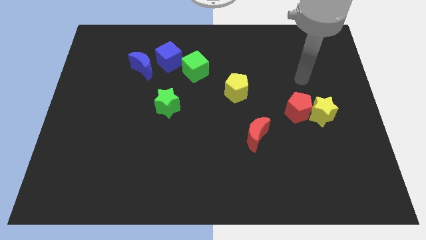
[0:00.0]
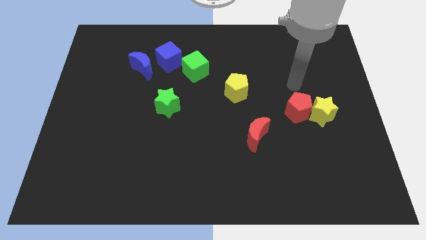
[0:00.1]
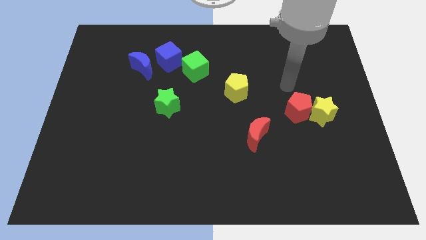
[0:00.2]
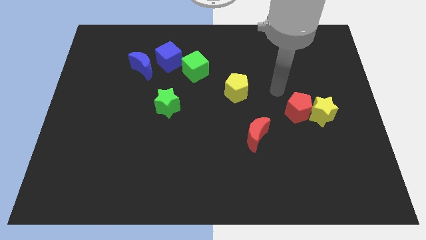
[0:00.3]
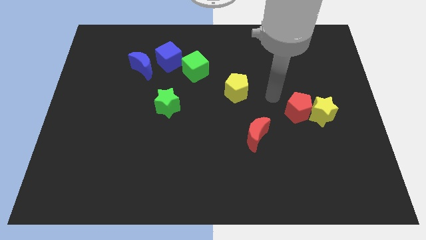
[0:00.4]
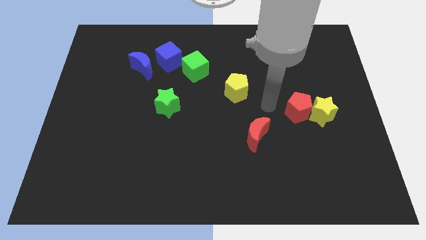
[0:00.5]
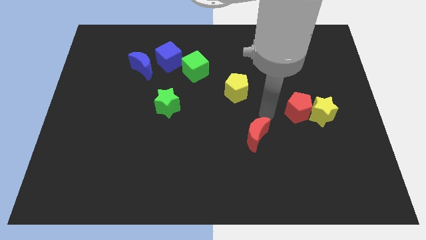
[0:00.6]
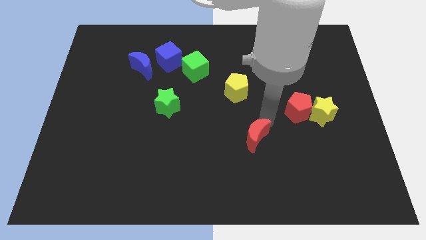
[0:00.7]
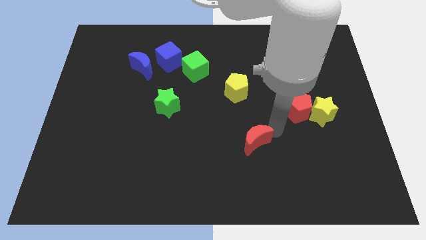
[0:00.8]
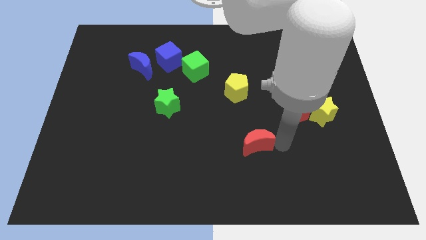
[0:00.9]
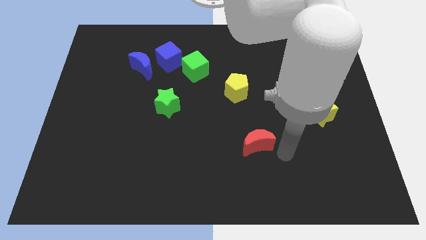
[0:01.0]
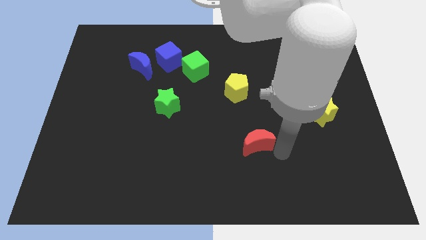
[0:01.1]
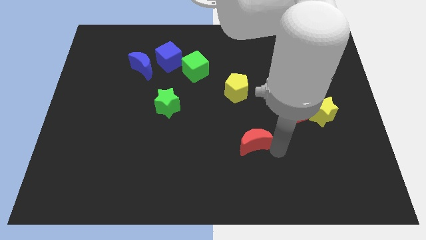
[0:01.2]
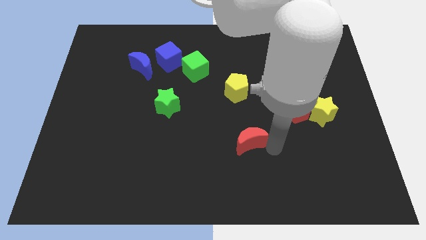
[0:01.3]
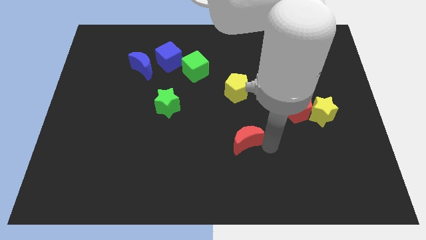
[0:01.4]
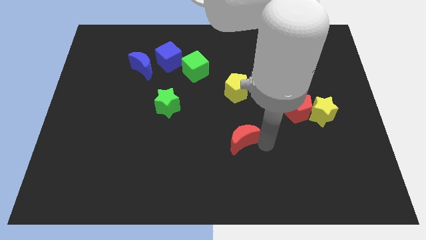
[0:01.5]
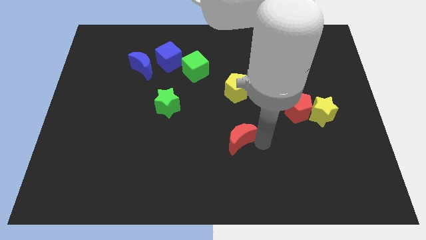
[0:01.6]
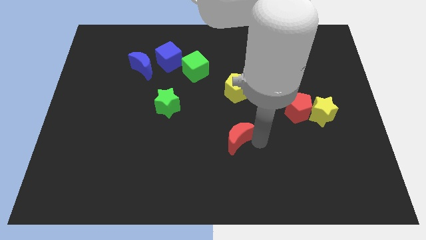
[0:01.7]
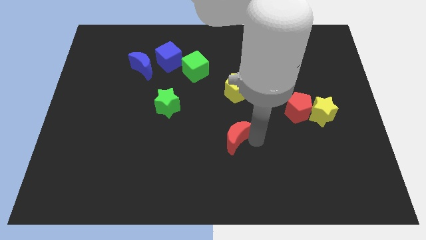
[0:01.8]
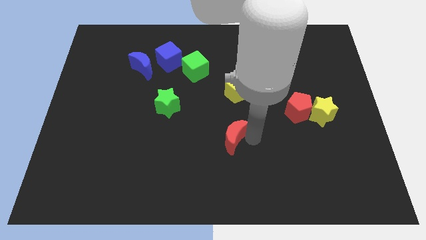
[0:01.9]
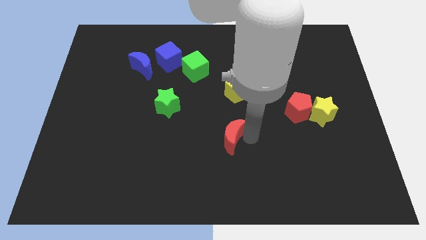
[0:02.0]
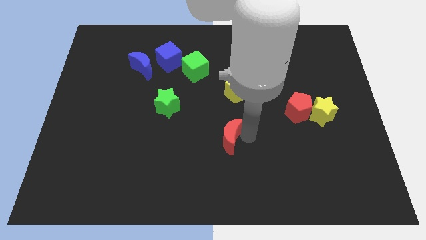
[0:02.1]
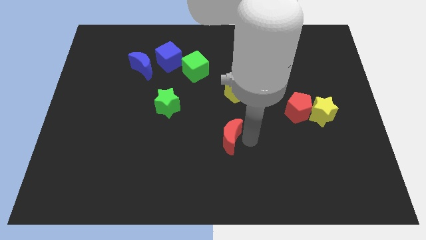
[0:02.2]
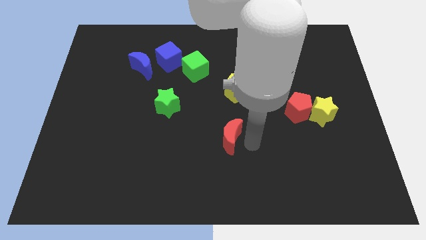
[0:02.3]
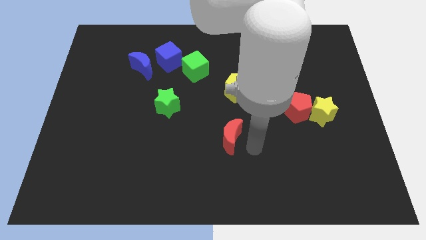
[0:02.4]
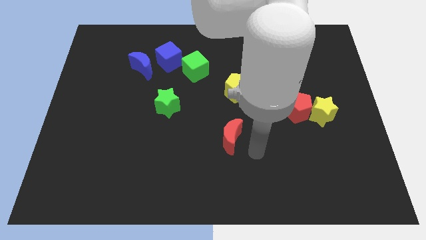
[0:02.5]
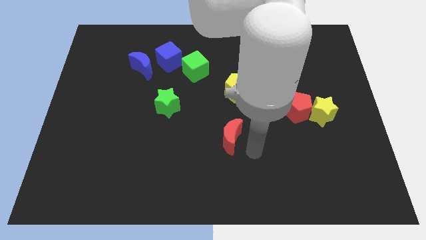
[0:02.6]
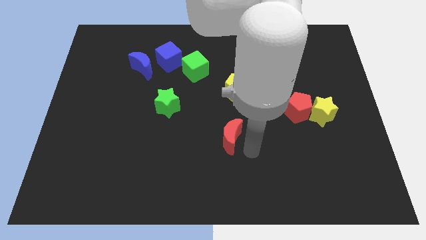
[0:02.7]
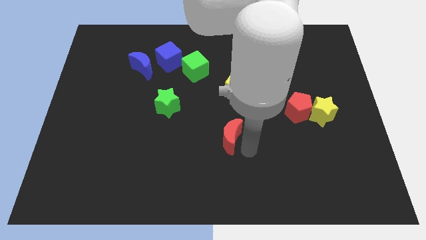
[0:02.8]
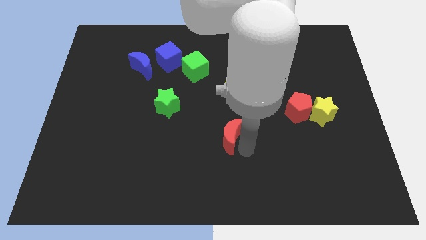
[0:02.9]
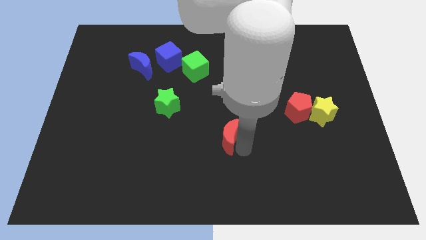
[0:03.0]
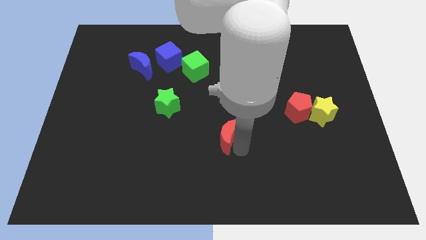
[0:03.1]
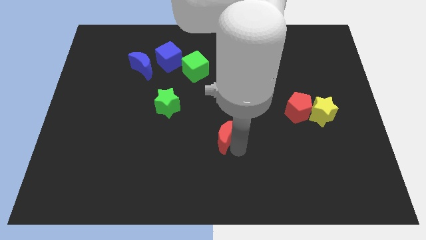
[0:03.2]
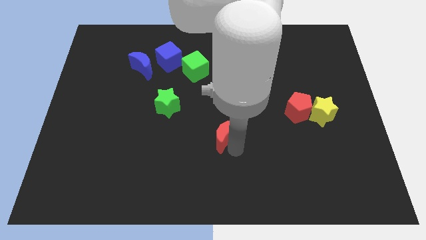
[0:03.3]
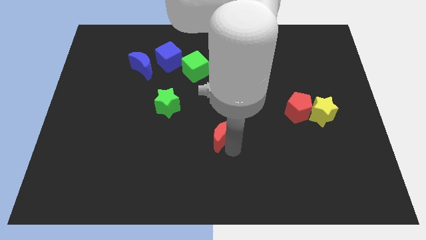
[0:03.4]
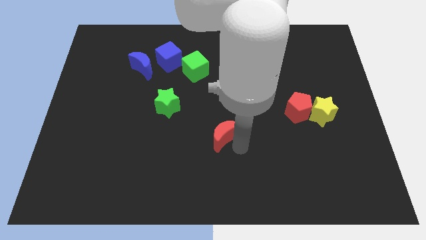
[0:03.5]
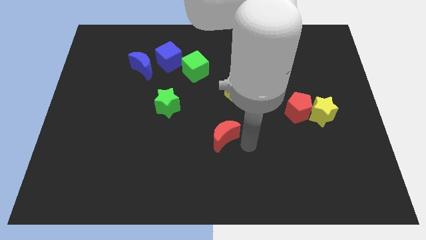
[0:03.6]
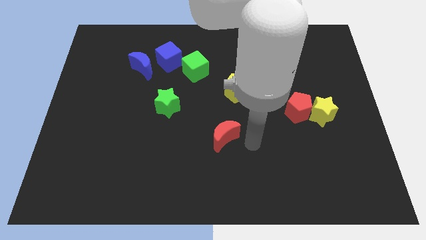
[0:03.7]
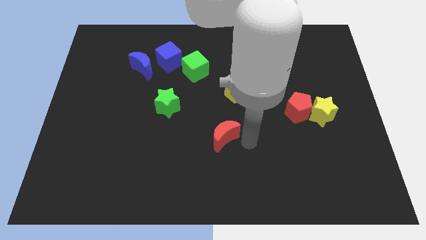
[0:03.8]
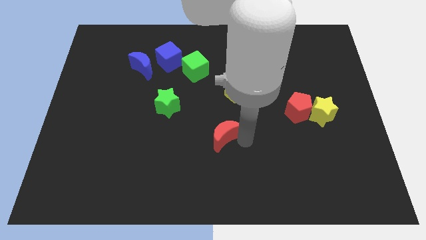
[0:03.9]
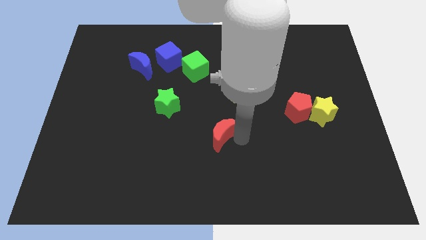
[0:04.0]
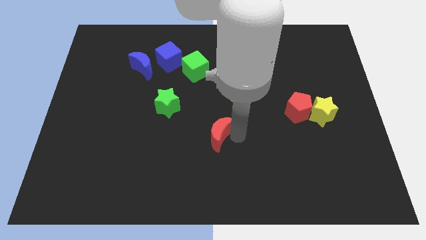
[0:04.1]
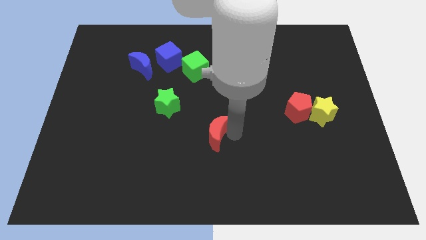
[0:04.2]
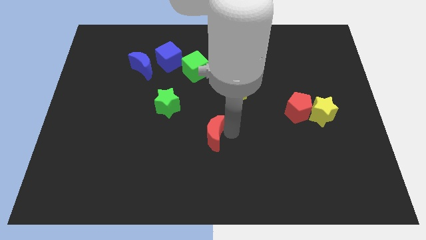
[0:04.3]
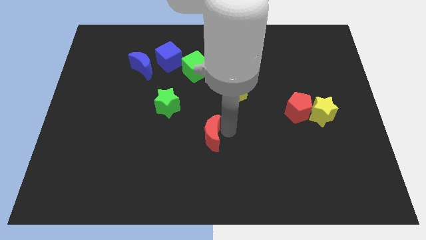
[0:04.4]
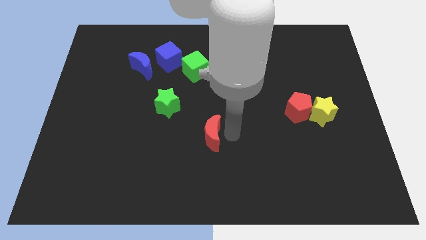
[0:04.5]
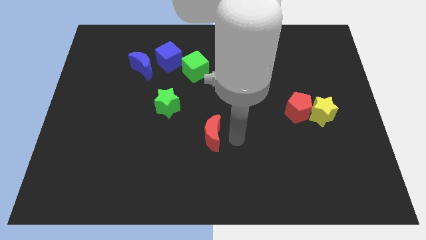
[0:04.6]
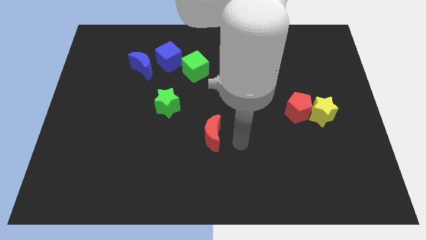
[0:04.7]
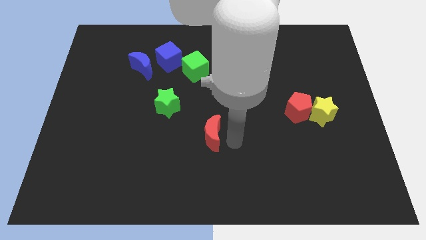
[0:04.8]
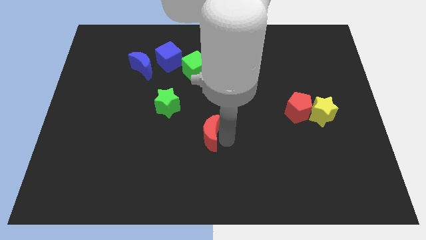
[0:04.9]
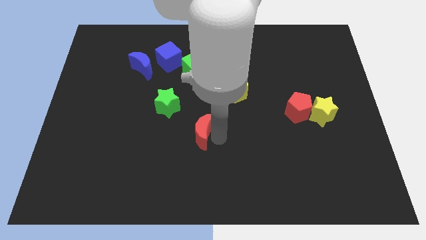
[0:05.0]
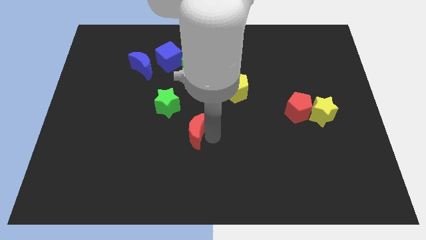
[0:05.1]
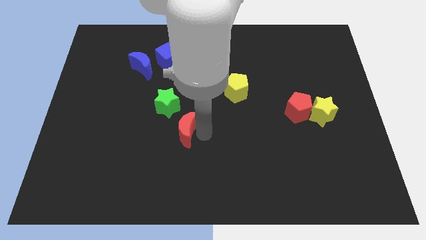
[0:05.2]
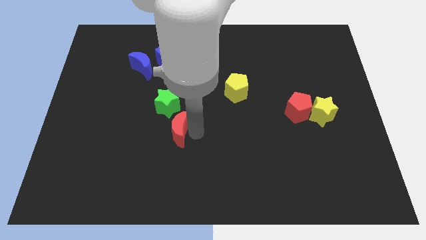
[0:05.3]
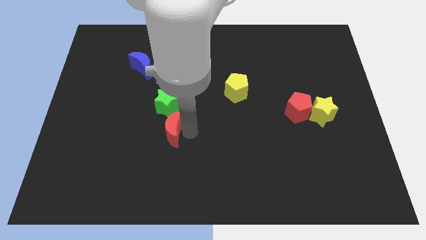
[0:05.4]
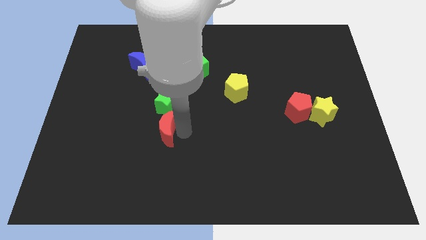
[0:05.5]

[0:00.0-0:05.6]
slide the red moon to the left

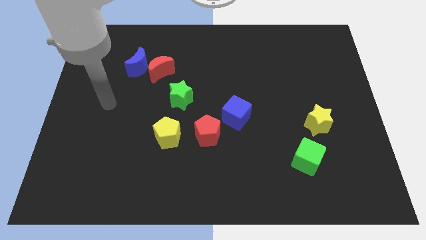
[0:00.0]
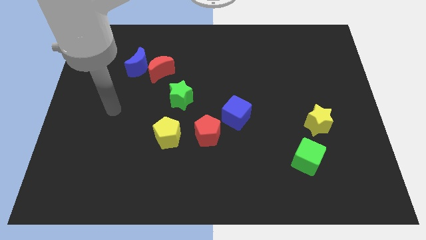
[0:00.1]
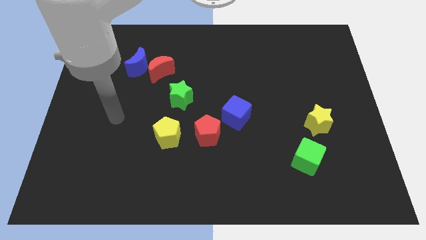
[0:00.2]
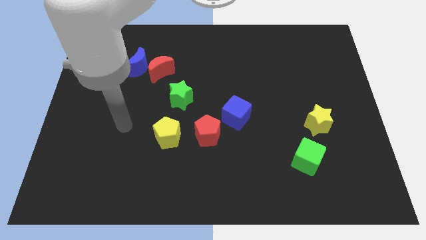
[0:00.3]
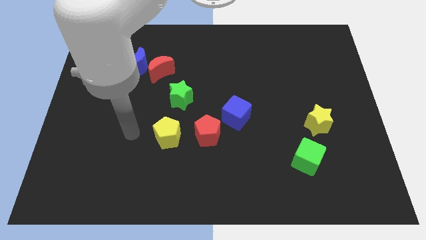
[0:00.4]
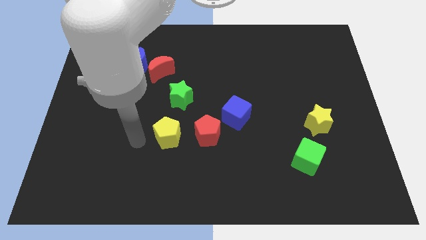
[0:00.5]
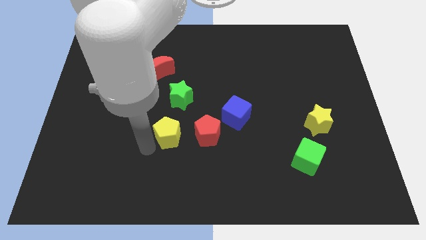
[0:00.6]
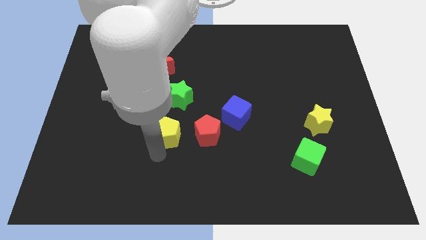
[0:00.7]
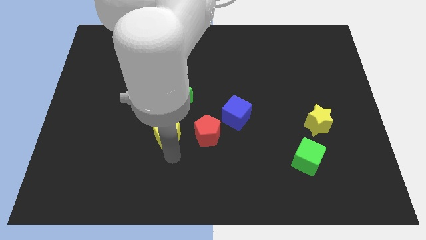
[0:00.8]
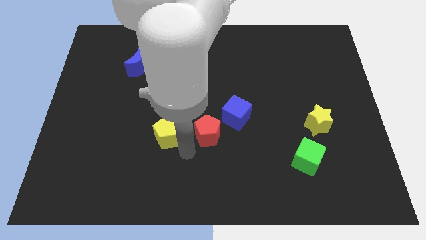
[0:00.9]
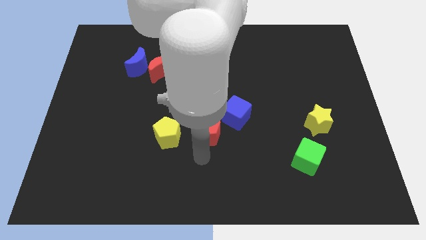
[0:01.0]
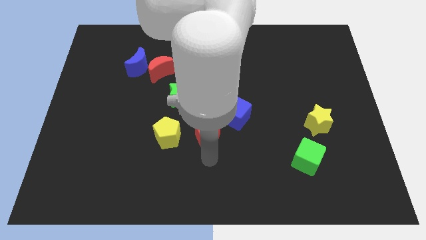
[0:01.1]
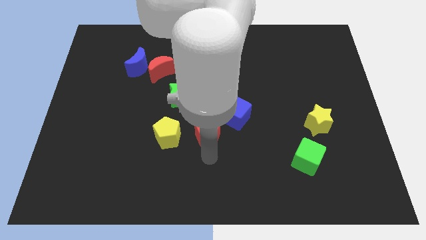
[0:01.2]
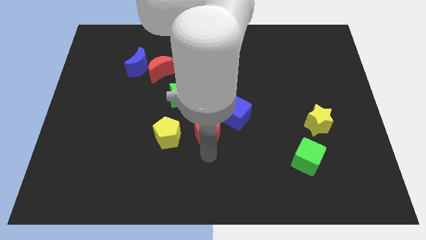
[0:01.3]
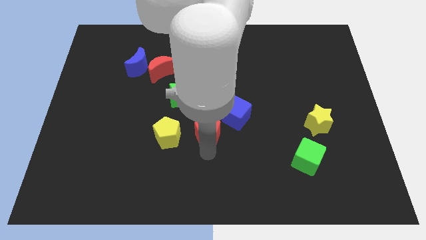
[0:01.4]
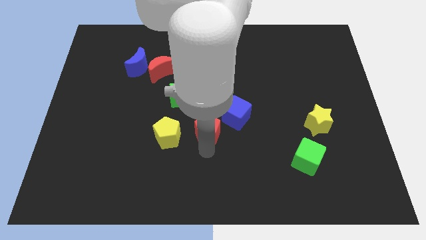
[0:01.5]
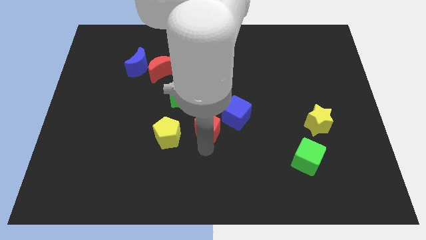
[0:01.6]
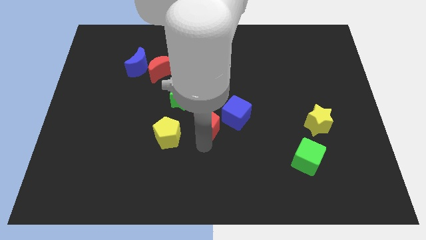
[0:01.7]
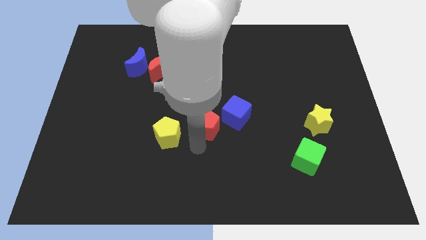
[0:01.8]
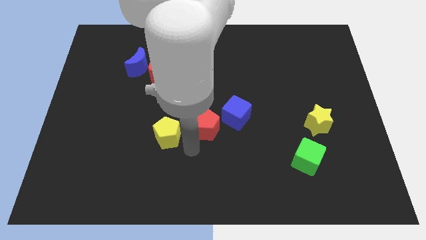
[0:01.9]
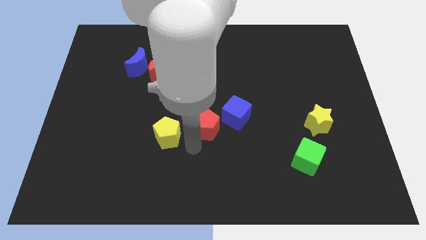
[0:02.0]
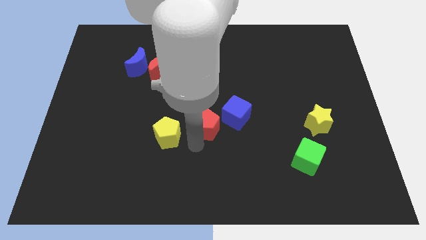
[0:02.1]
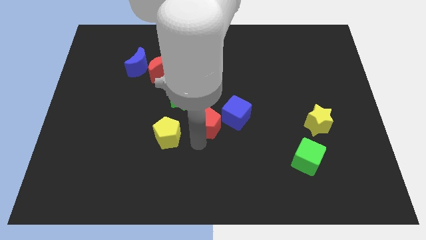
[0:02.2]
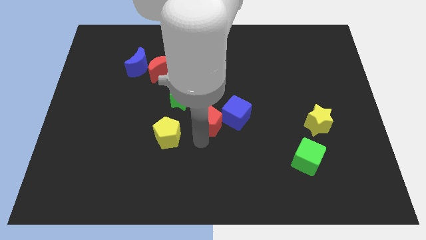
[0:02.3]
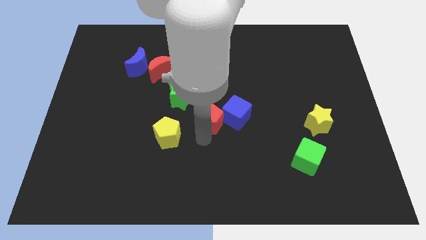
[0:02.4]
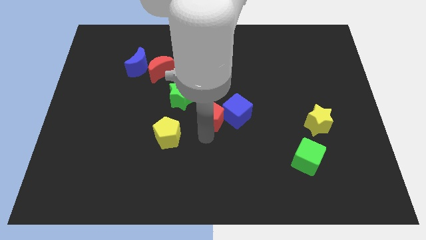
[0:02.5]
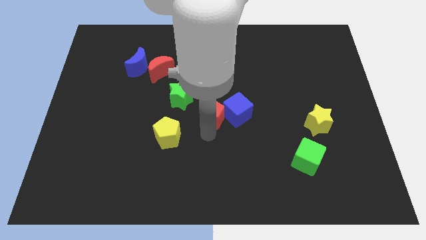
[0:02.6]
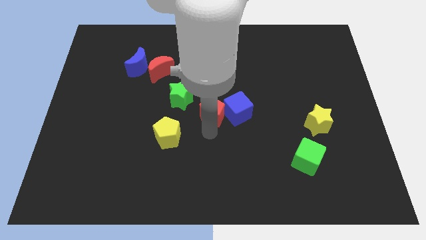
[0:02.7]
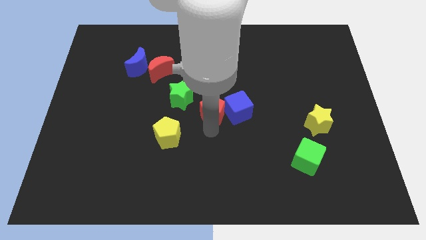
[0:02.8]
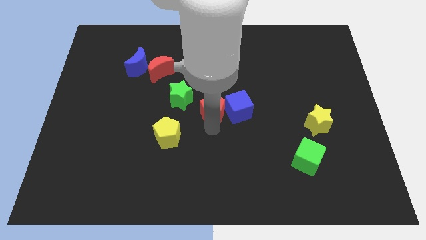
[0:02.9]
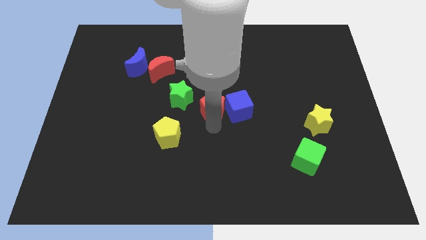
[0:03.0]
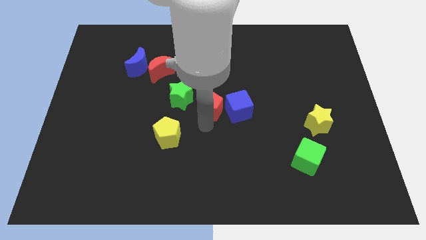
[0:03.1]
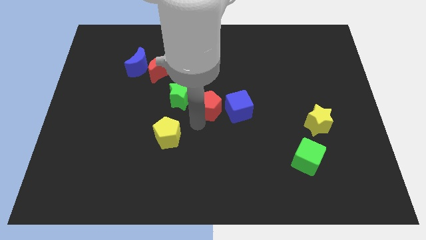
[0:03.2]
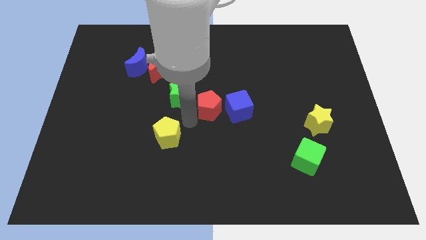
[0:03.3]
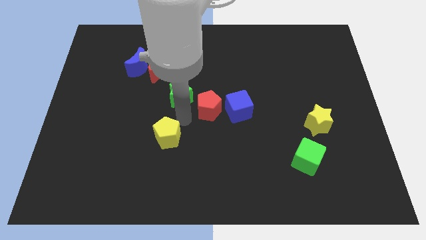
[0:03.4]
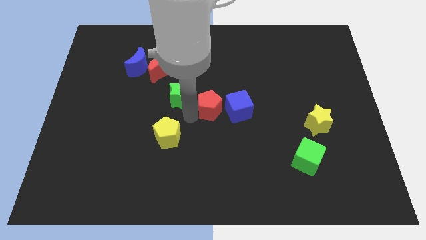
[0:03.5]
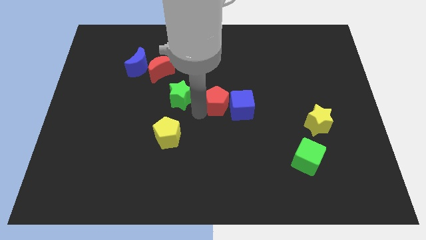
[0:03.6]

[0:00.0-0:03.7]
slide the red pentagon a bit upwards and to the right
